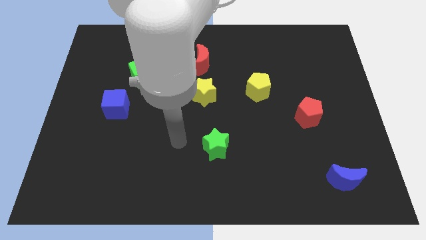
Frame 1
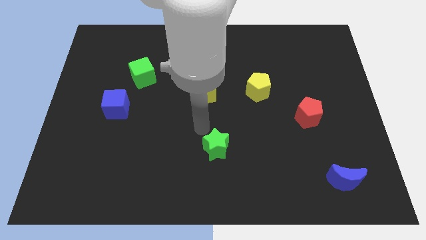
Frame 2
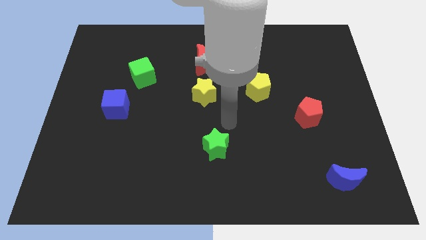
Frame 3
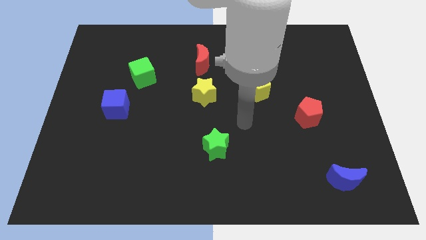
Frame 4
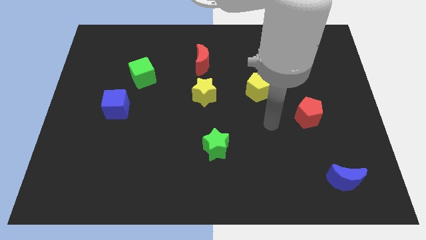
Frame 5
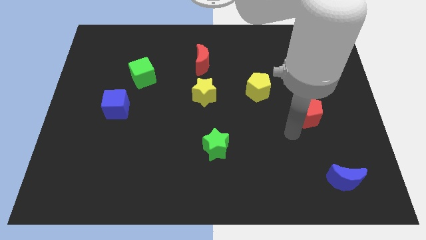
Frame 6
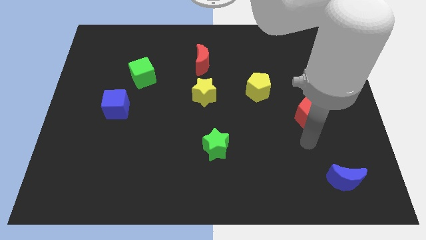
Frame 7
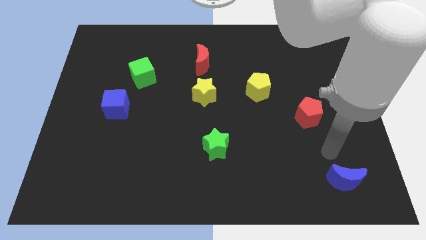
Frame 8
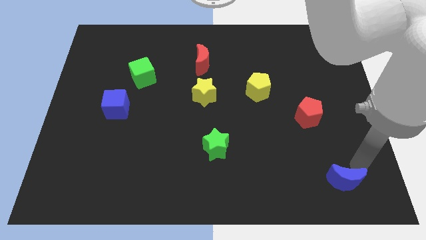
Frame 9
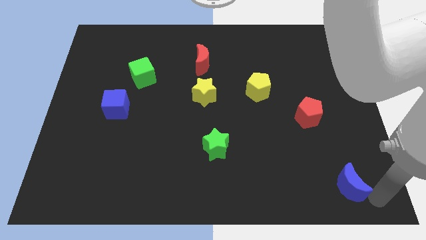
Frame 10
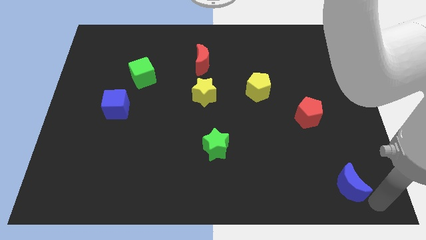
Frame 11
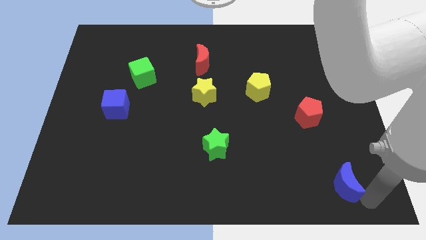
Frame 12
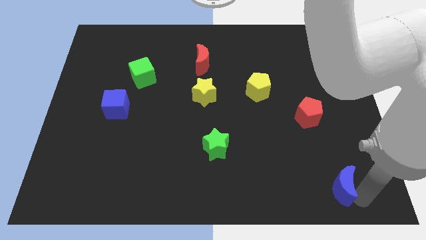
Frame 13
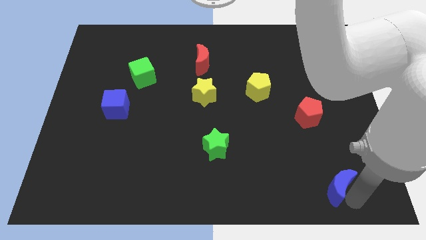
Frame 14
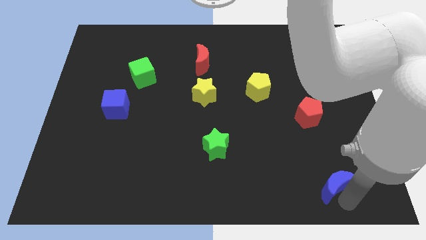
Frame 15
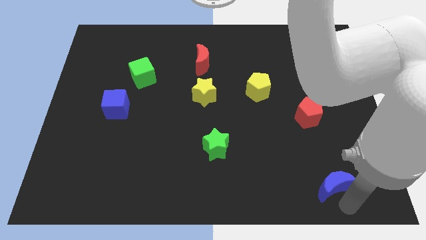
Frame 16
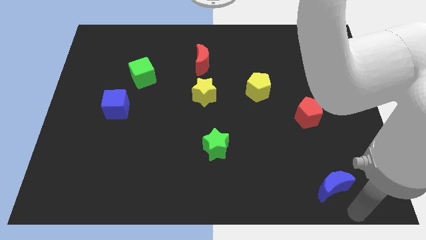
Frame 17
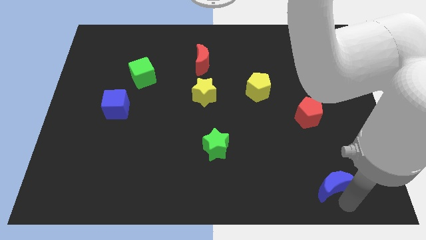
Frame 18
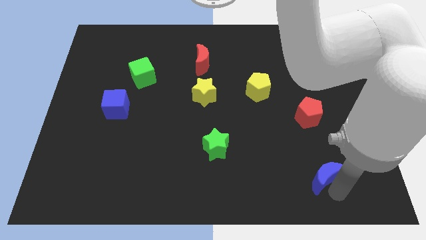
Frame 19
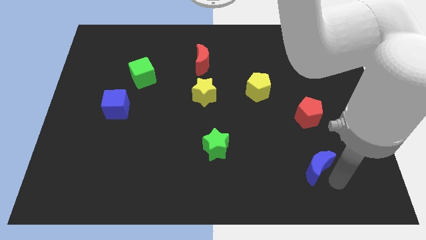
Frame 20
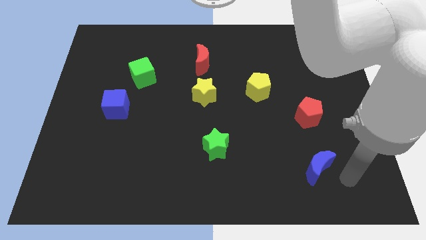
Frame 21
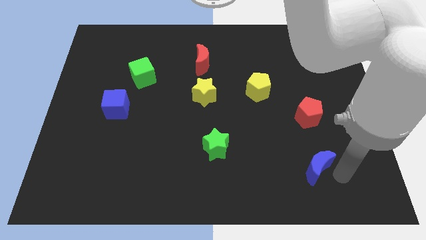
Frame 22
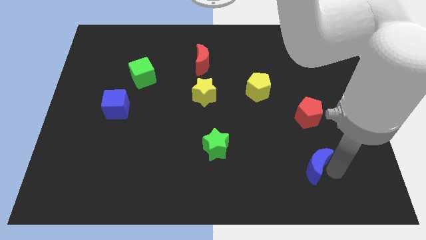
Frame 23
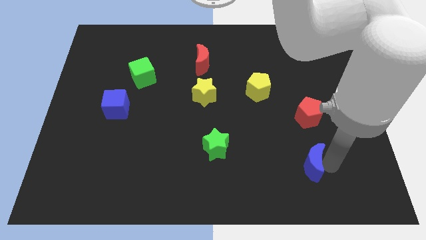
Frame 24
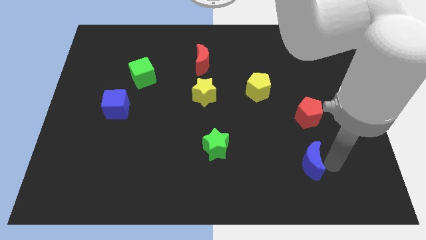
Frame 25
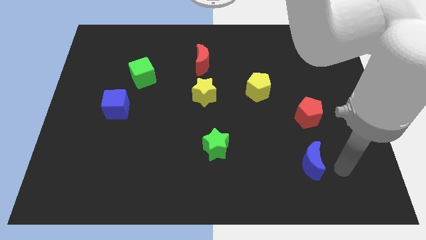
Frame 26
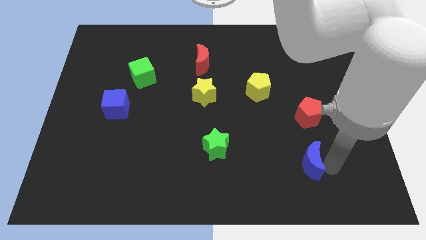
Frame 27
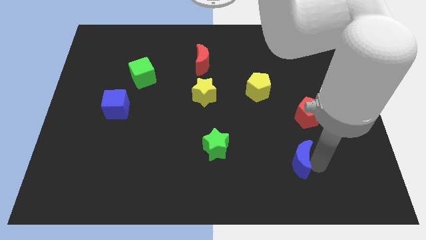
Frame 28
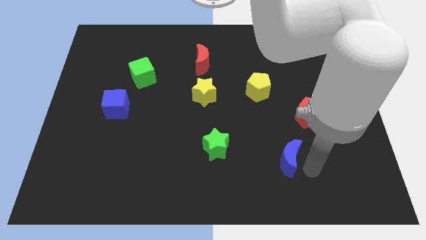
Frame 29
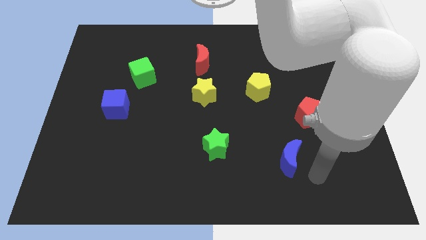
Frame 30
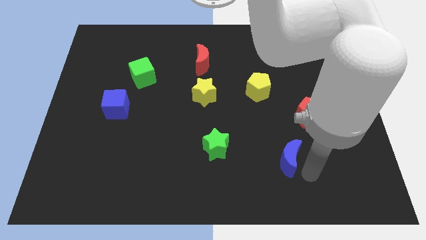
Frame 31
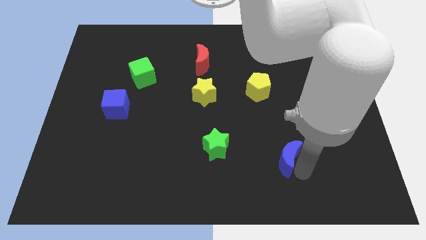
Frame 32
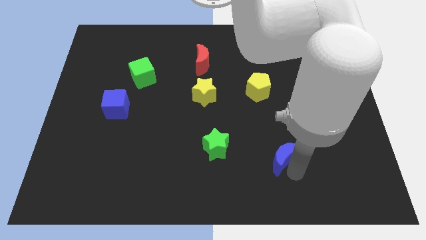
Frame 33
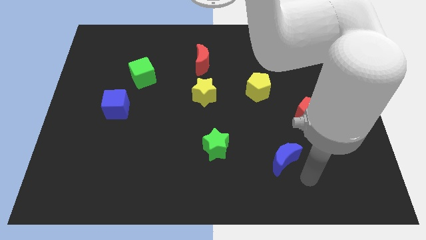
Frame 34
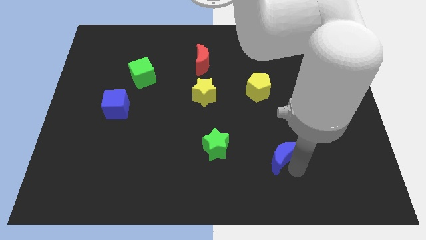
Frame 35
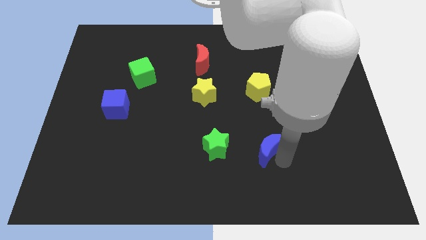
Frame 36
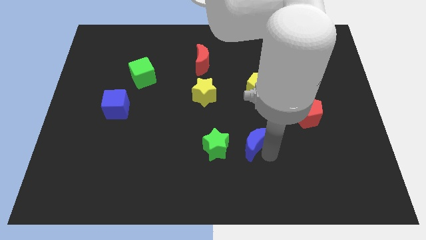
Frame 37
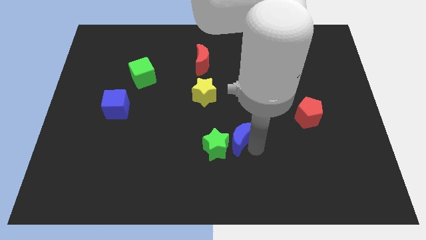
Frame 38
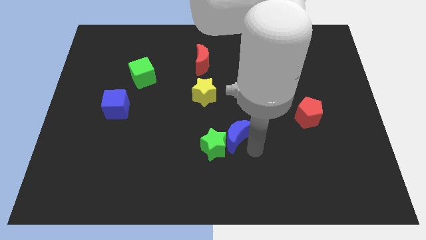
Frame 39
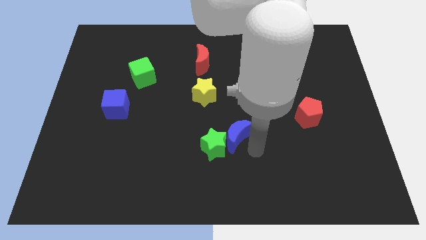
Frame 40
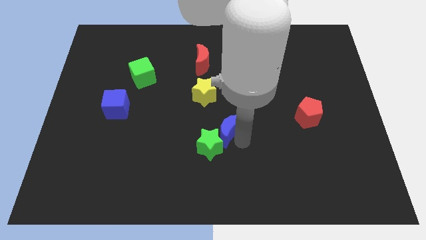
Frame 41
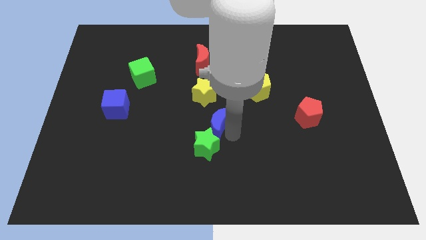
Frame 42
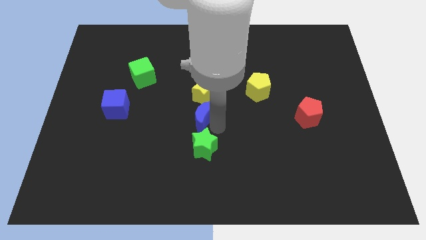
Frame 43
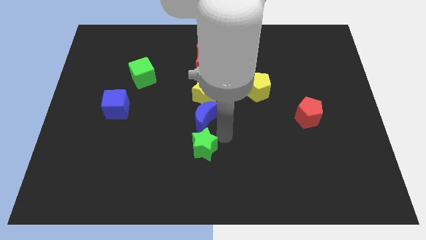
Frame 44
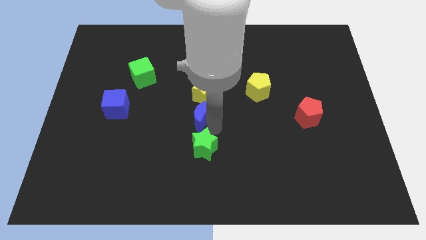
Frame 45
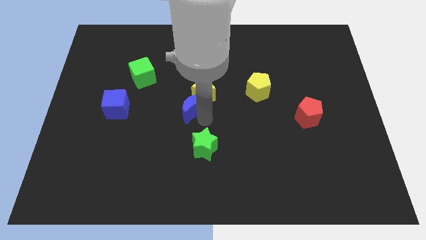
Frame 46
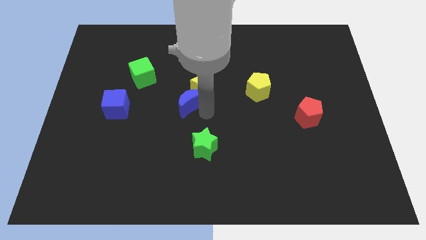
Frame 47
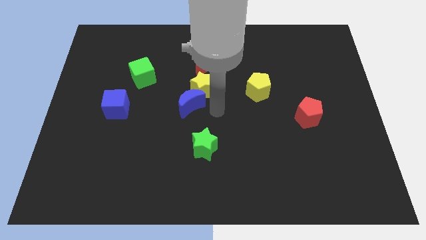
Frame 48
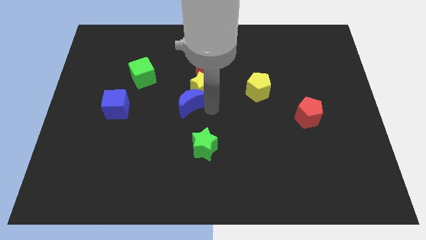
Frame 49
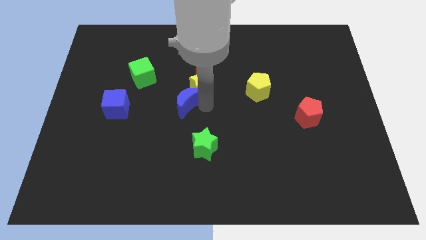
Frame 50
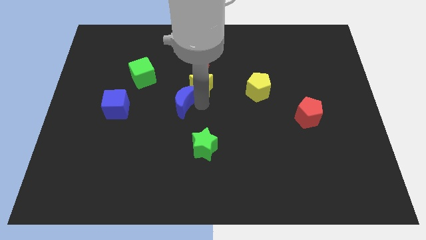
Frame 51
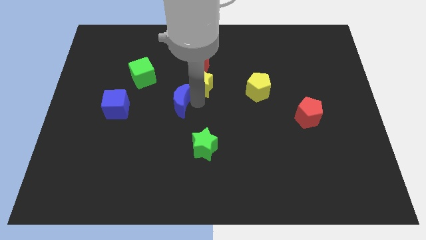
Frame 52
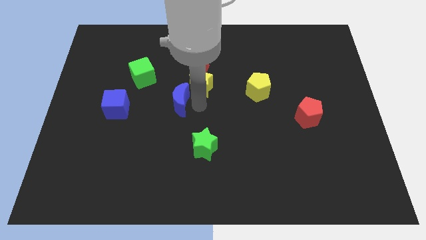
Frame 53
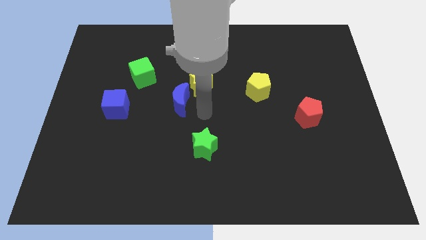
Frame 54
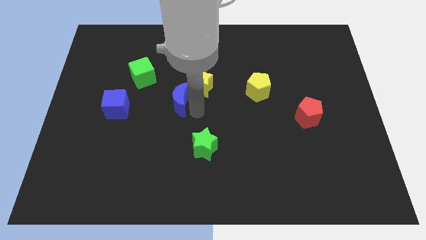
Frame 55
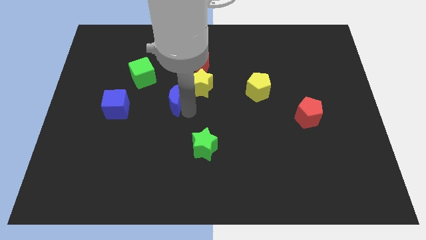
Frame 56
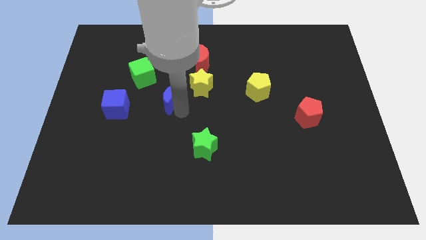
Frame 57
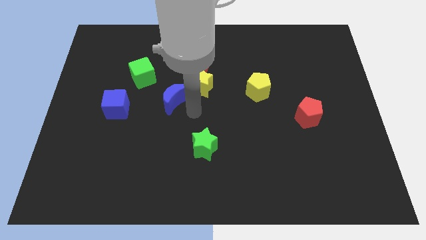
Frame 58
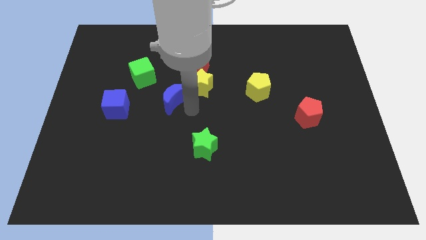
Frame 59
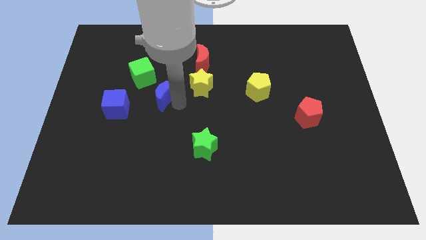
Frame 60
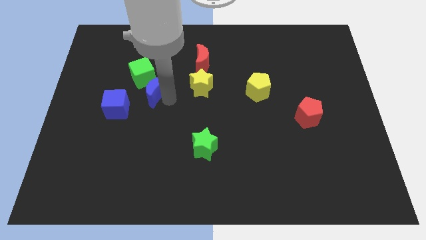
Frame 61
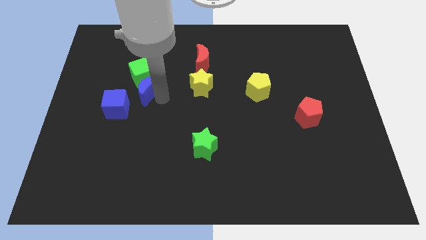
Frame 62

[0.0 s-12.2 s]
put the blue moon next to the green cube
